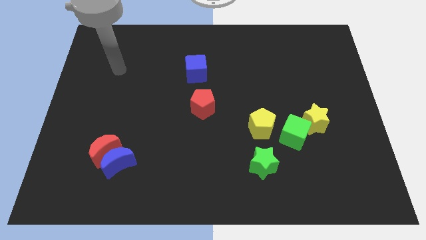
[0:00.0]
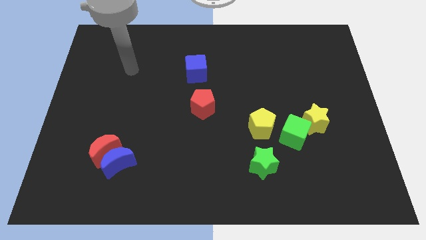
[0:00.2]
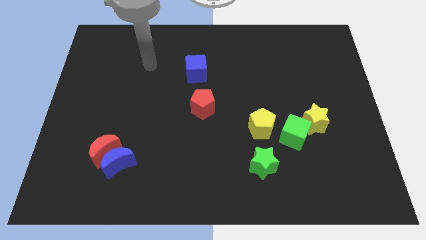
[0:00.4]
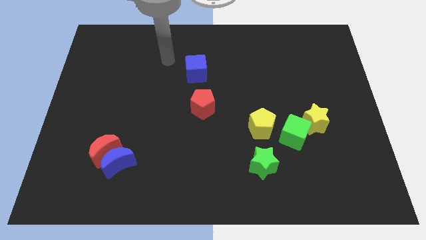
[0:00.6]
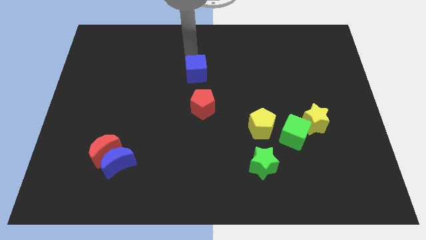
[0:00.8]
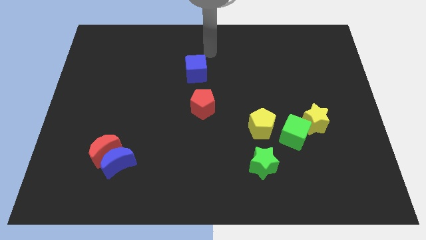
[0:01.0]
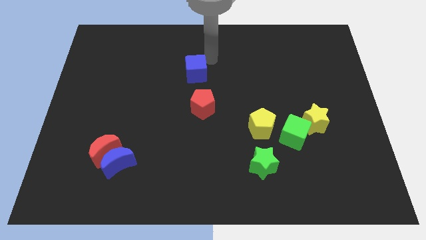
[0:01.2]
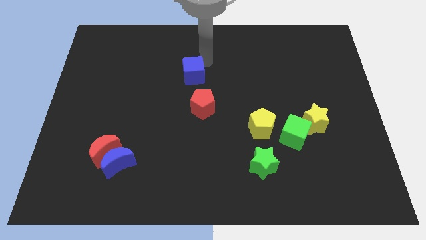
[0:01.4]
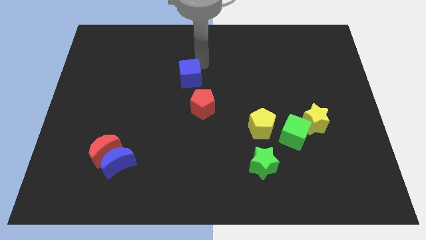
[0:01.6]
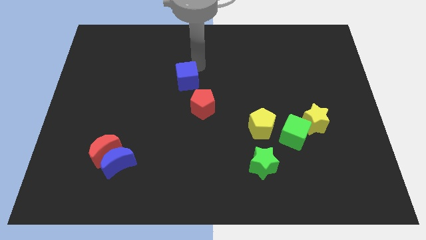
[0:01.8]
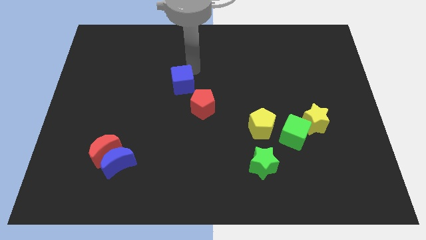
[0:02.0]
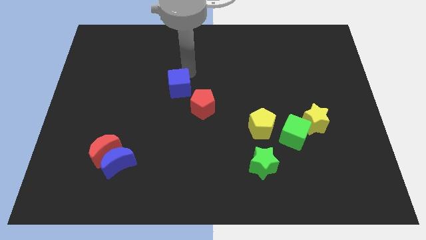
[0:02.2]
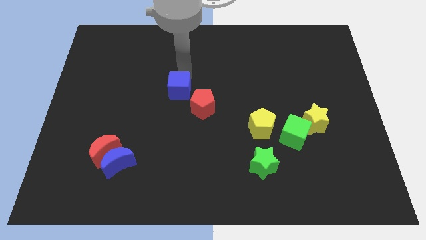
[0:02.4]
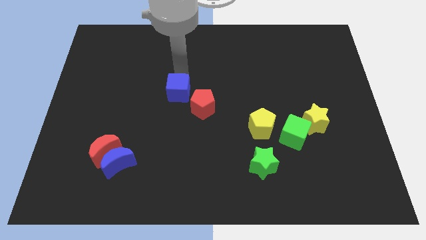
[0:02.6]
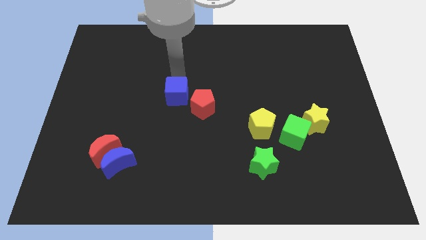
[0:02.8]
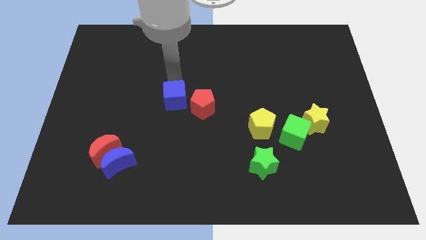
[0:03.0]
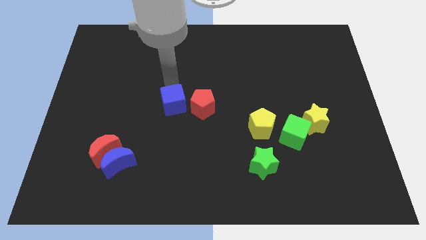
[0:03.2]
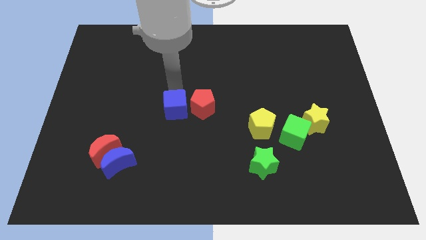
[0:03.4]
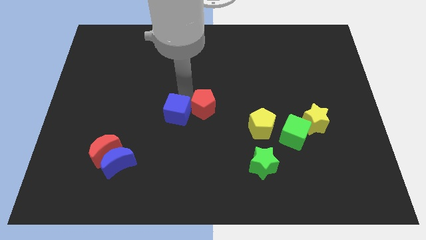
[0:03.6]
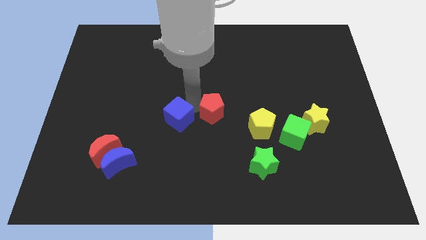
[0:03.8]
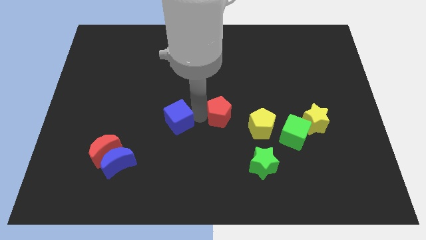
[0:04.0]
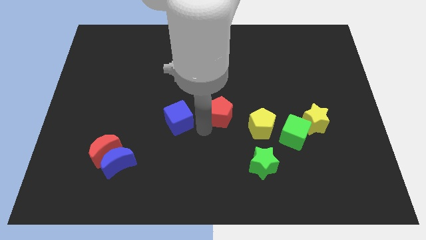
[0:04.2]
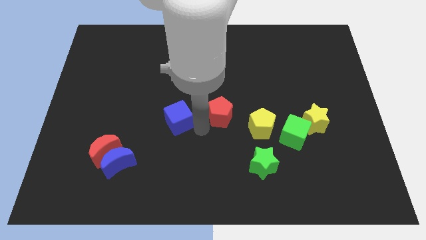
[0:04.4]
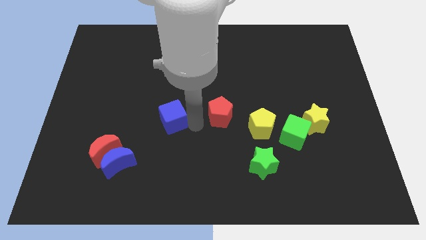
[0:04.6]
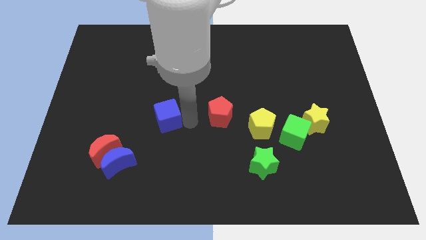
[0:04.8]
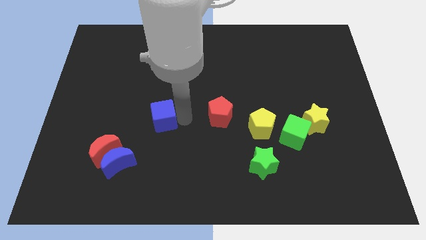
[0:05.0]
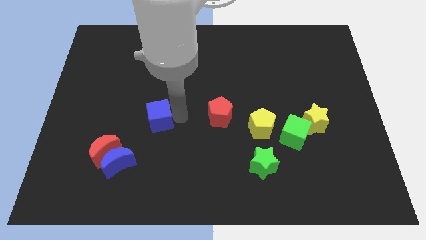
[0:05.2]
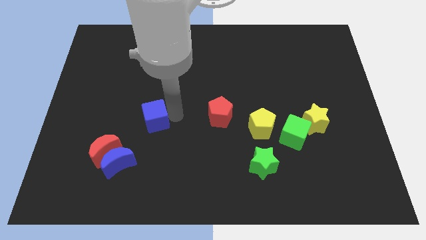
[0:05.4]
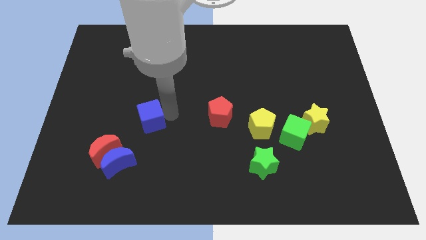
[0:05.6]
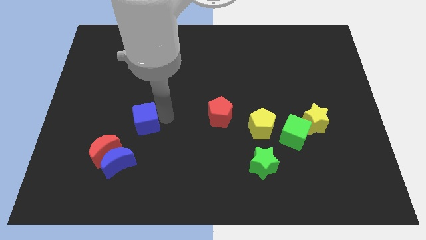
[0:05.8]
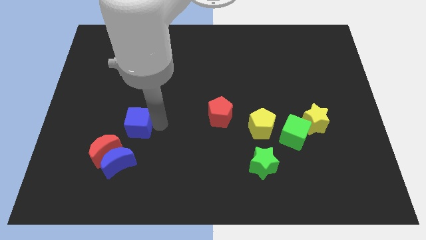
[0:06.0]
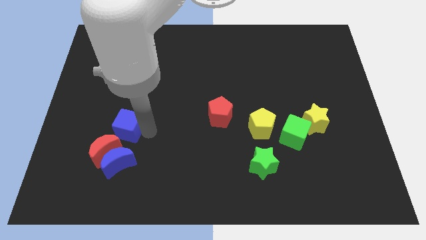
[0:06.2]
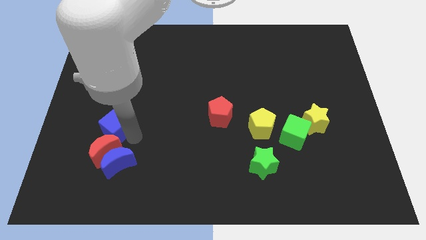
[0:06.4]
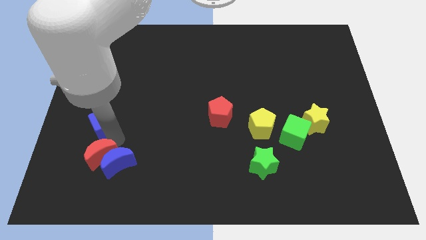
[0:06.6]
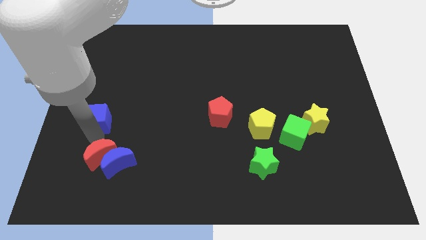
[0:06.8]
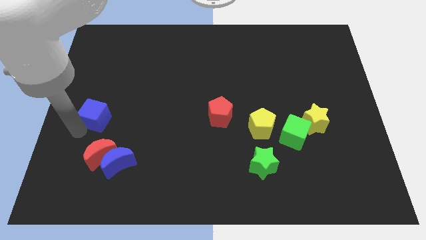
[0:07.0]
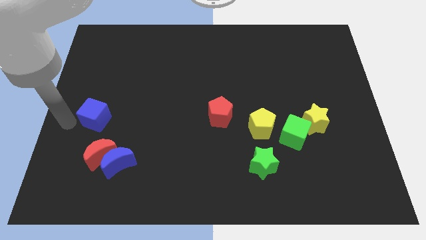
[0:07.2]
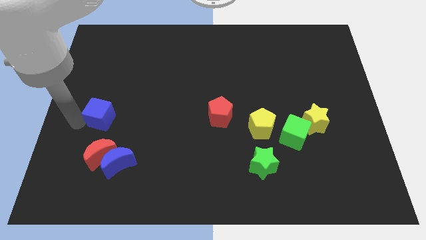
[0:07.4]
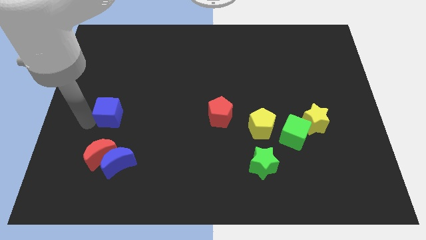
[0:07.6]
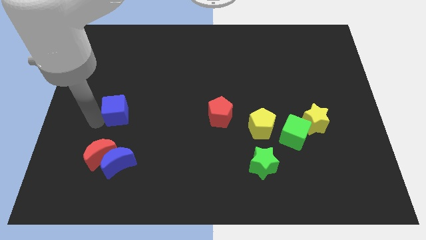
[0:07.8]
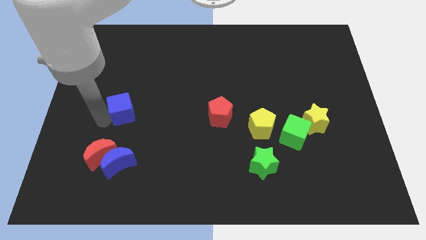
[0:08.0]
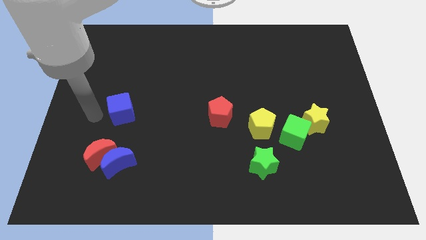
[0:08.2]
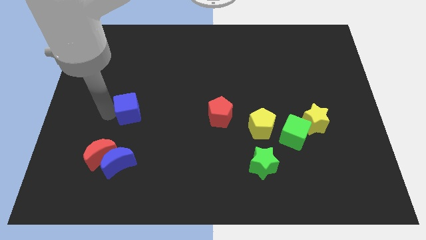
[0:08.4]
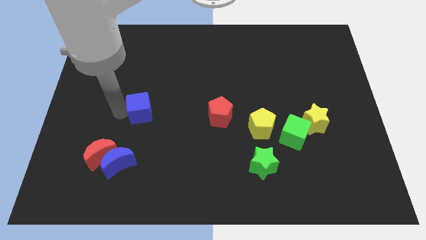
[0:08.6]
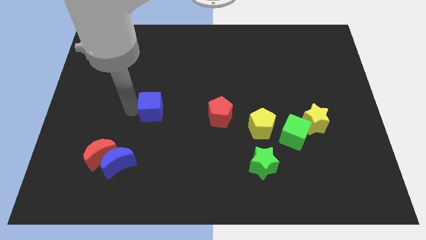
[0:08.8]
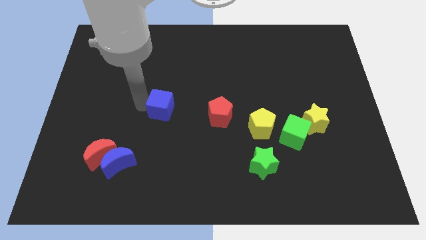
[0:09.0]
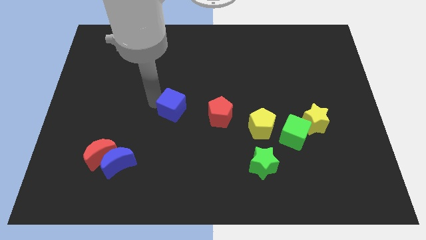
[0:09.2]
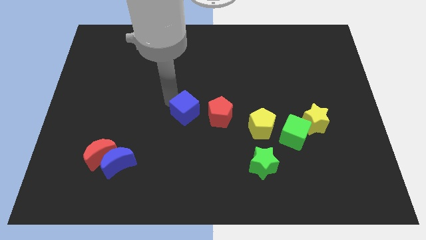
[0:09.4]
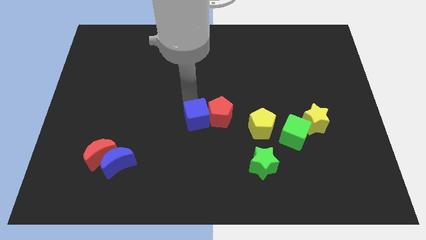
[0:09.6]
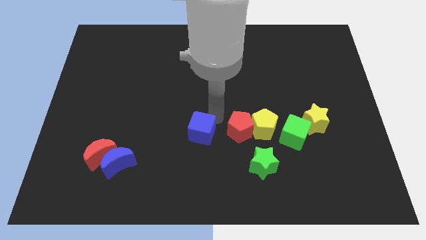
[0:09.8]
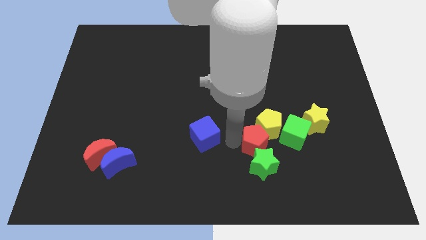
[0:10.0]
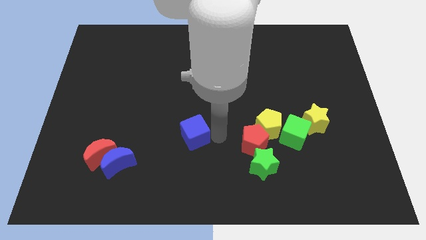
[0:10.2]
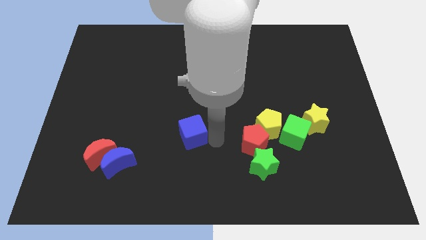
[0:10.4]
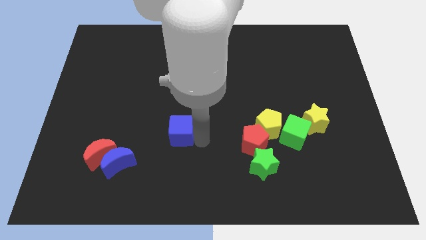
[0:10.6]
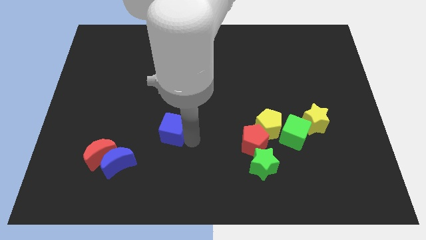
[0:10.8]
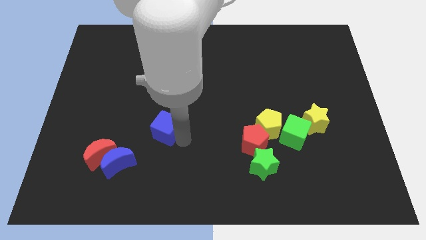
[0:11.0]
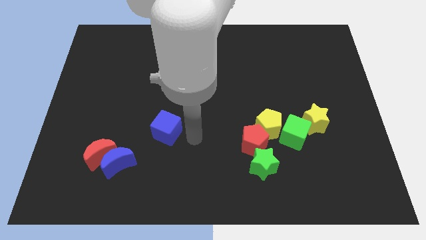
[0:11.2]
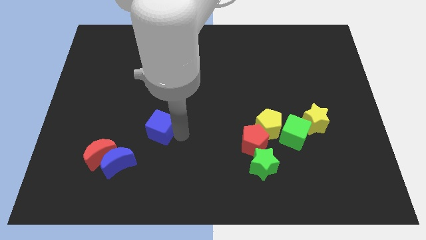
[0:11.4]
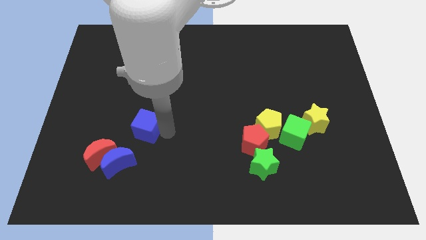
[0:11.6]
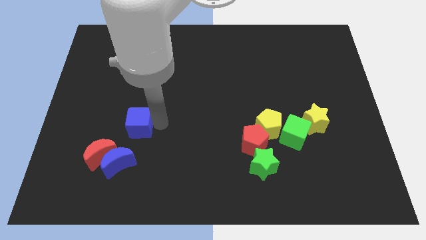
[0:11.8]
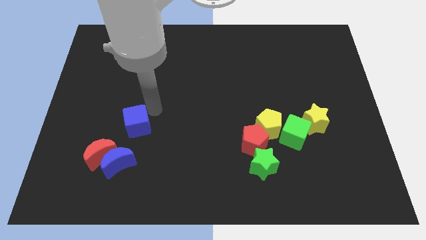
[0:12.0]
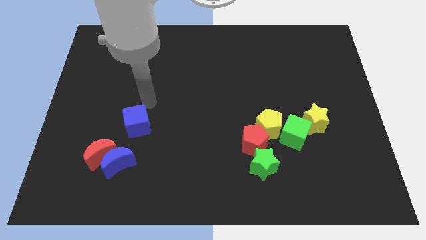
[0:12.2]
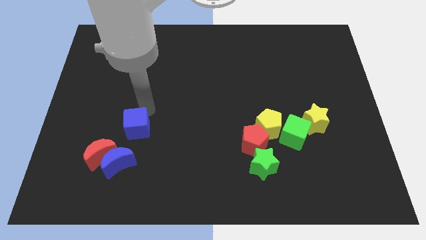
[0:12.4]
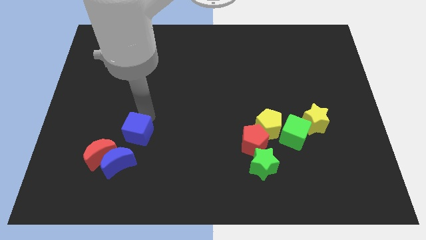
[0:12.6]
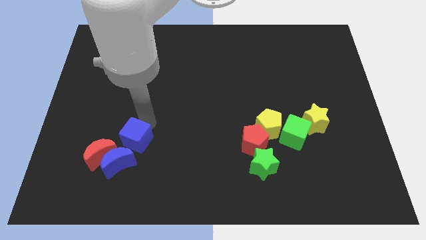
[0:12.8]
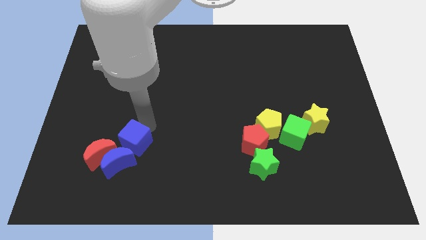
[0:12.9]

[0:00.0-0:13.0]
slide the blue cube to the blue moon

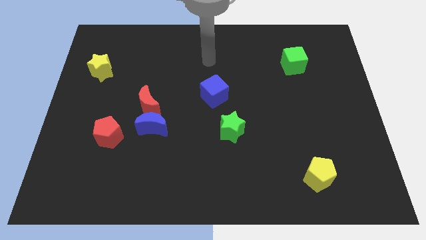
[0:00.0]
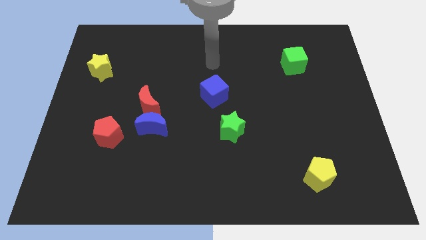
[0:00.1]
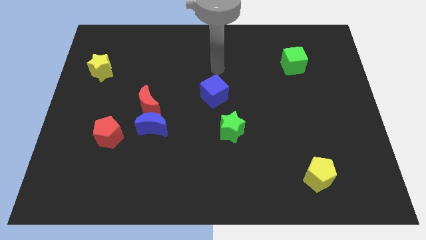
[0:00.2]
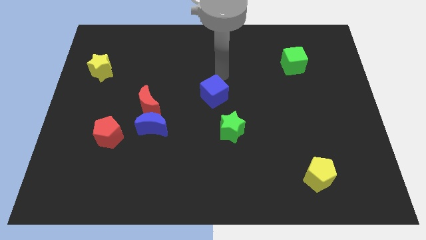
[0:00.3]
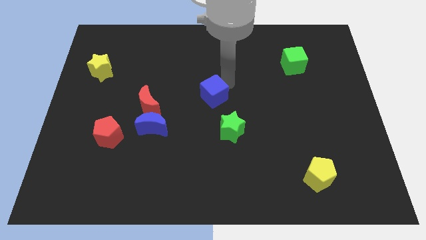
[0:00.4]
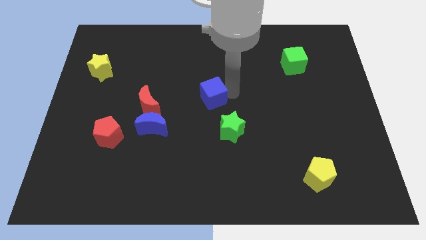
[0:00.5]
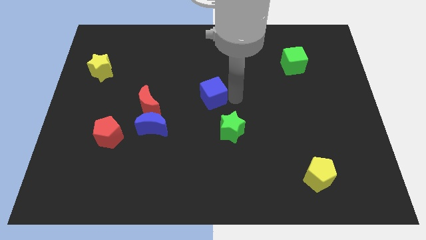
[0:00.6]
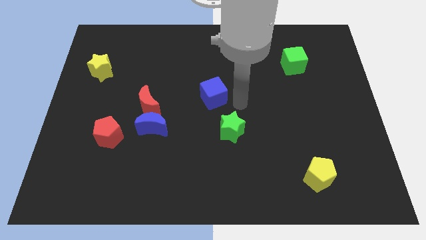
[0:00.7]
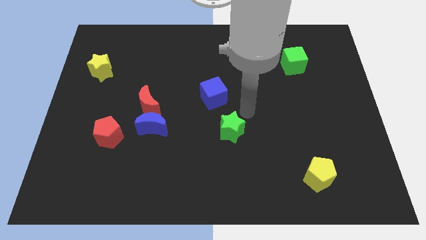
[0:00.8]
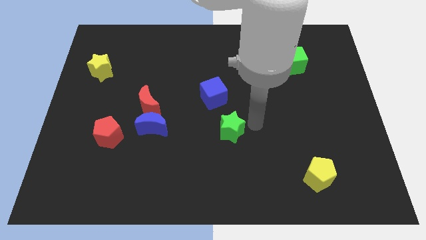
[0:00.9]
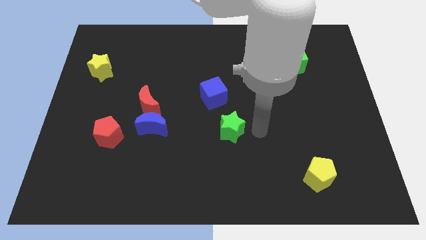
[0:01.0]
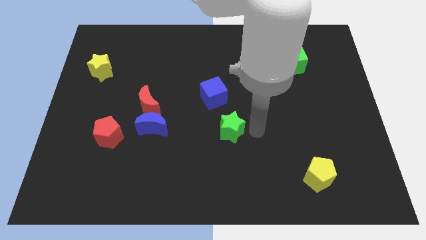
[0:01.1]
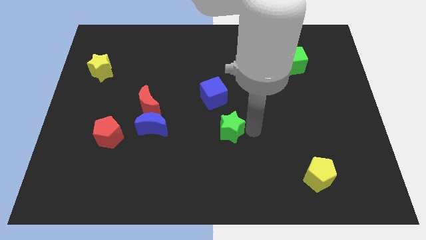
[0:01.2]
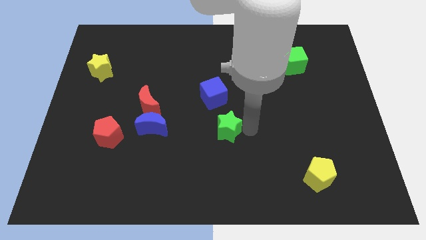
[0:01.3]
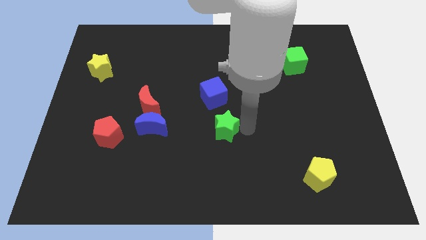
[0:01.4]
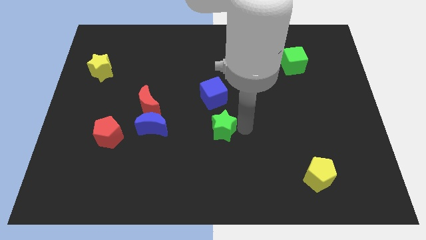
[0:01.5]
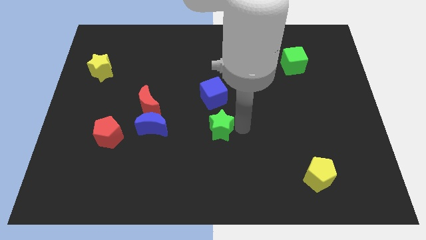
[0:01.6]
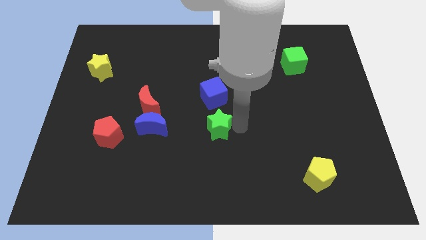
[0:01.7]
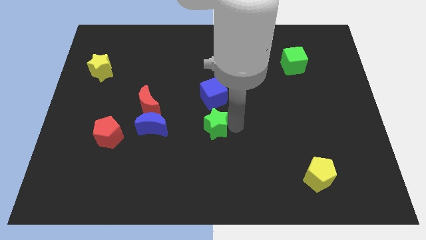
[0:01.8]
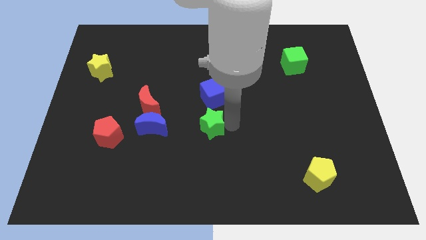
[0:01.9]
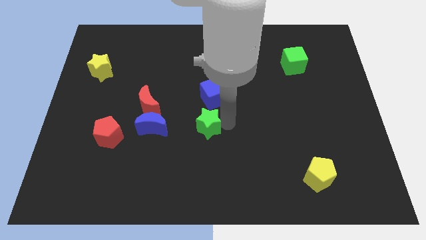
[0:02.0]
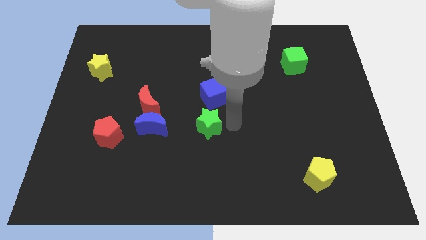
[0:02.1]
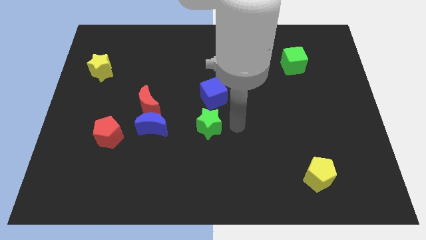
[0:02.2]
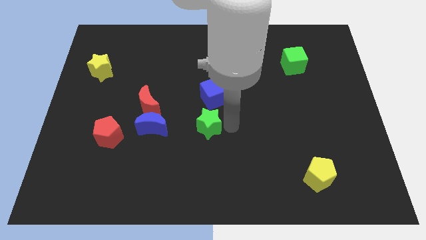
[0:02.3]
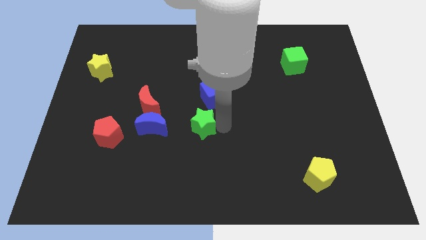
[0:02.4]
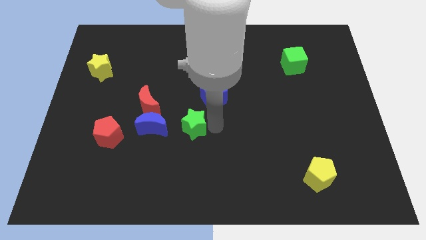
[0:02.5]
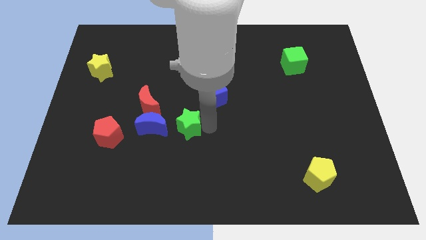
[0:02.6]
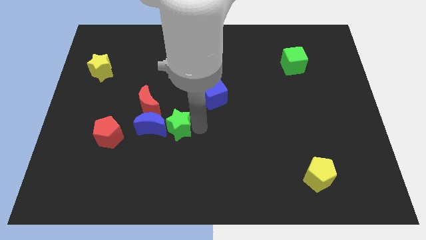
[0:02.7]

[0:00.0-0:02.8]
slide the green star towards the blue moon
